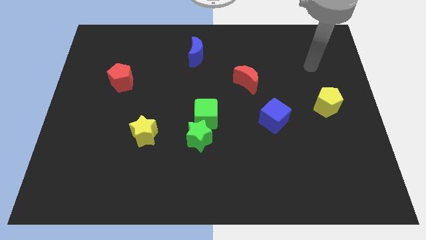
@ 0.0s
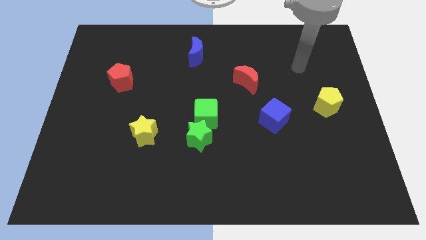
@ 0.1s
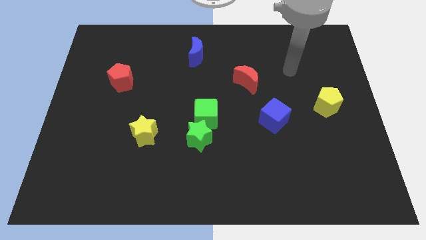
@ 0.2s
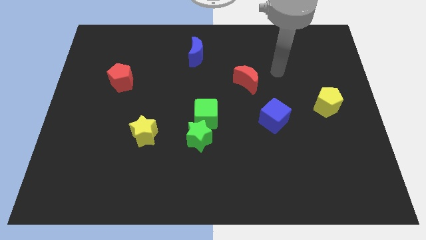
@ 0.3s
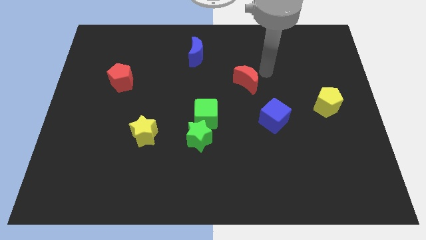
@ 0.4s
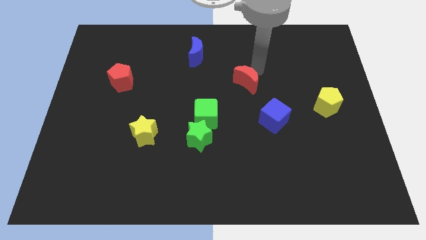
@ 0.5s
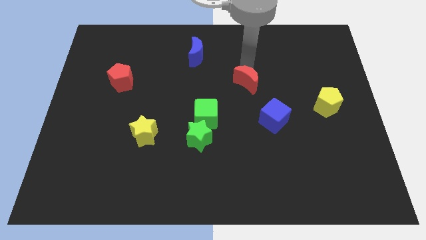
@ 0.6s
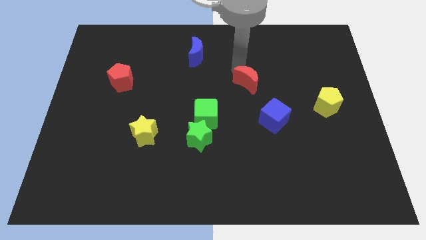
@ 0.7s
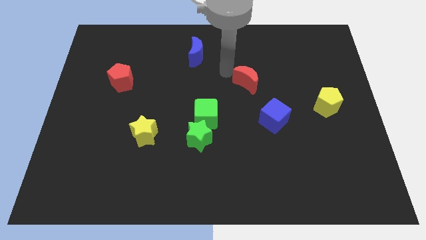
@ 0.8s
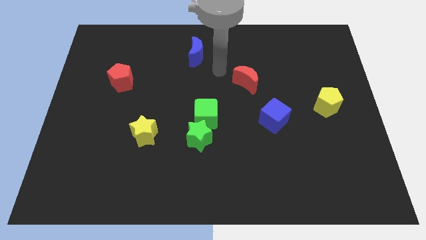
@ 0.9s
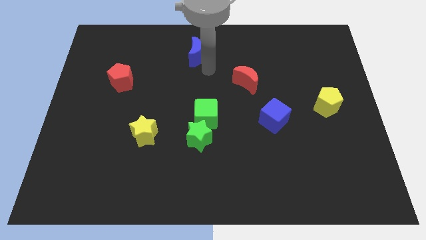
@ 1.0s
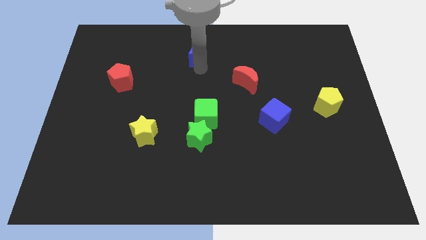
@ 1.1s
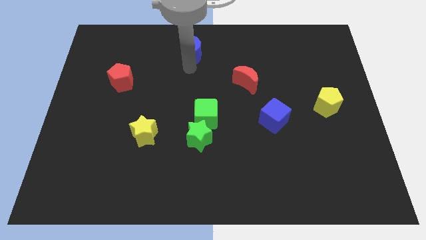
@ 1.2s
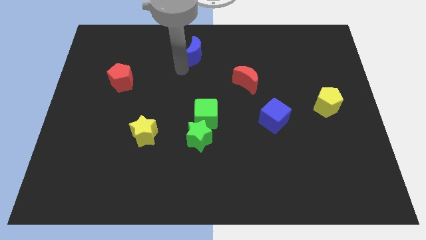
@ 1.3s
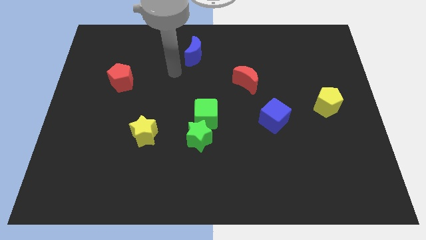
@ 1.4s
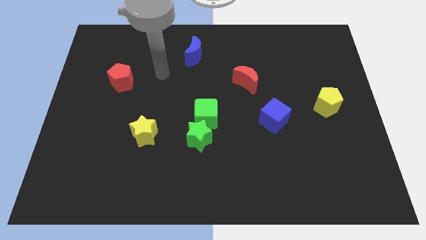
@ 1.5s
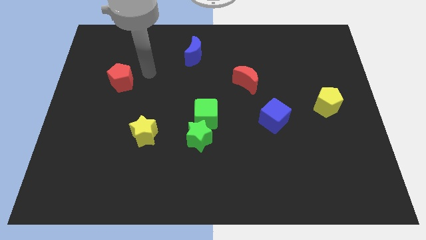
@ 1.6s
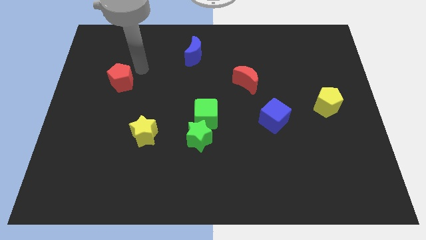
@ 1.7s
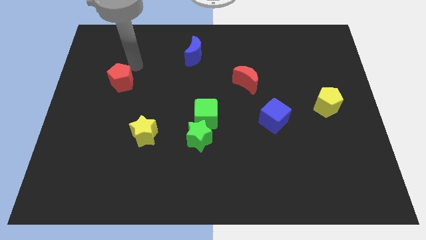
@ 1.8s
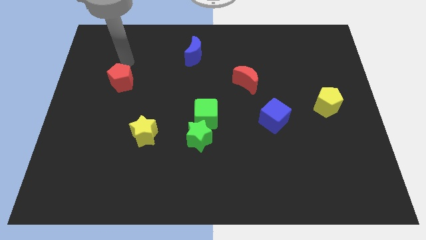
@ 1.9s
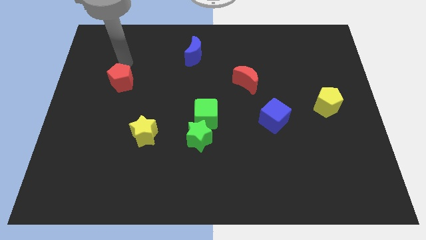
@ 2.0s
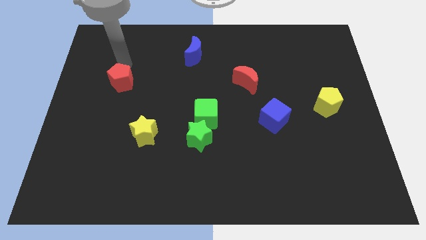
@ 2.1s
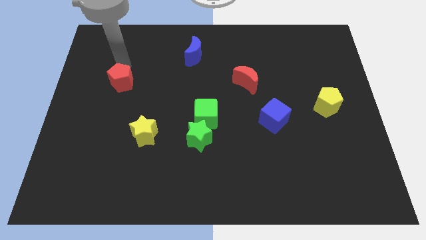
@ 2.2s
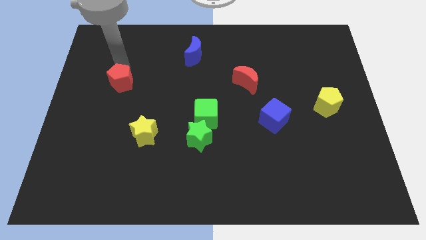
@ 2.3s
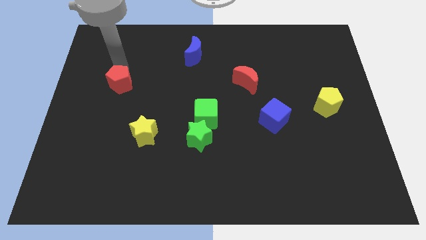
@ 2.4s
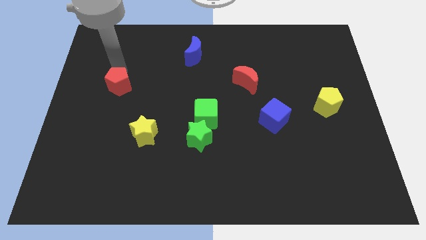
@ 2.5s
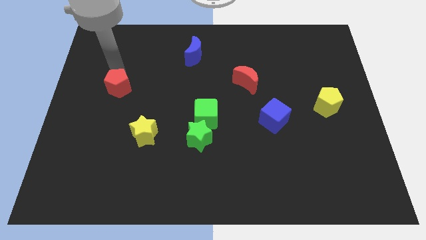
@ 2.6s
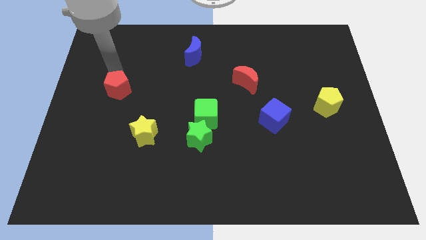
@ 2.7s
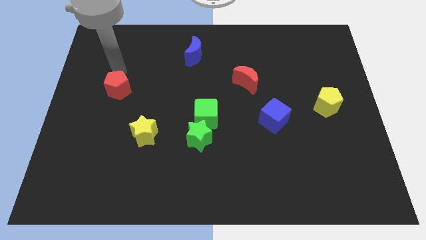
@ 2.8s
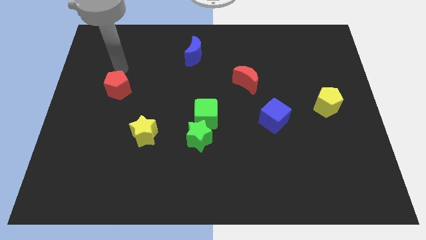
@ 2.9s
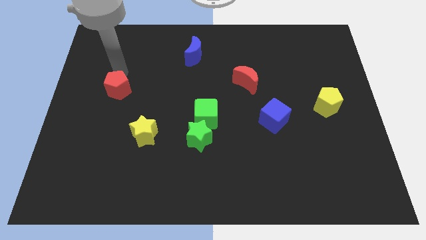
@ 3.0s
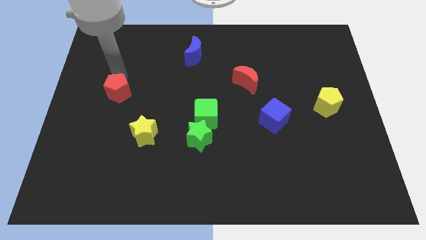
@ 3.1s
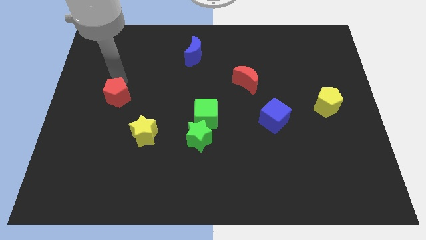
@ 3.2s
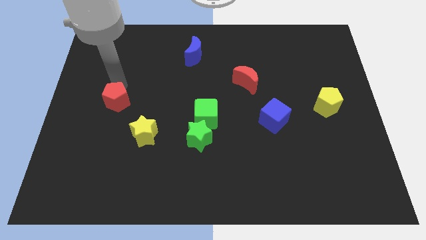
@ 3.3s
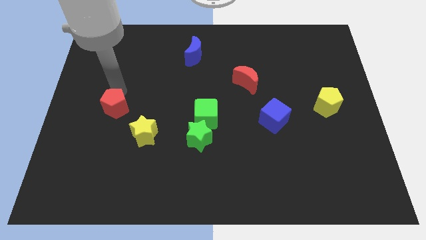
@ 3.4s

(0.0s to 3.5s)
slightly move the red pentagon down

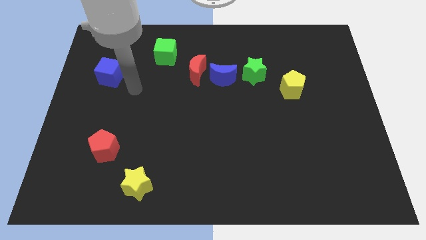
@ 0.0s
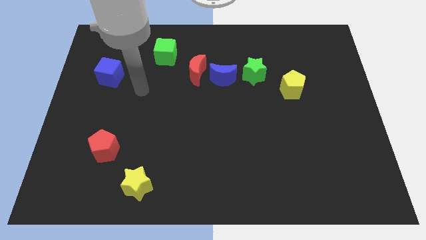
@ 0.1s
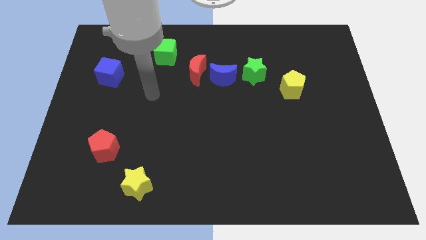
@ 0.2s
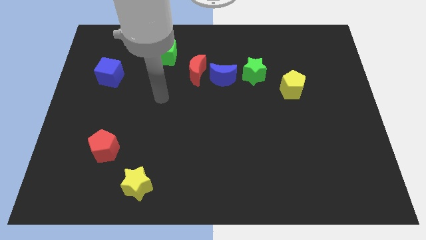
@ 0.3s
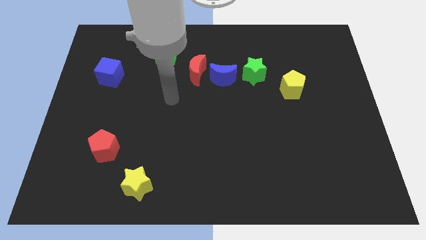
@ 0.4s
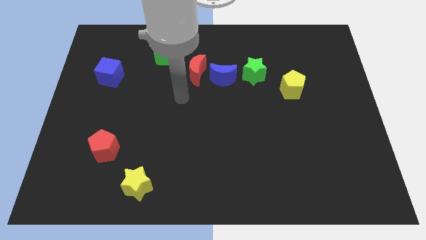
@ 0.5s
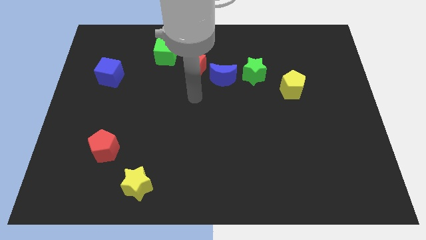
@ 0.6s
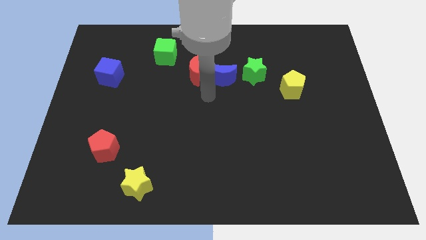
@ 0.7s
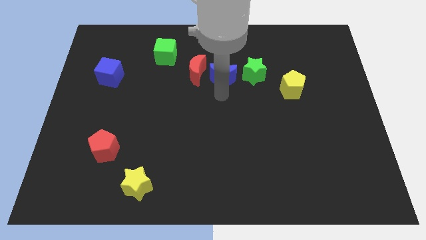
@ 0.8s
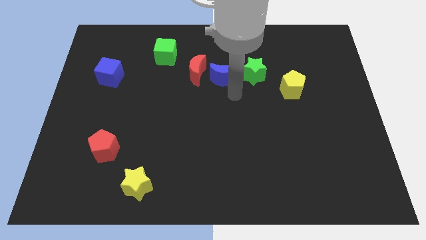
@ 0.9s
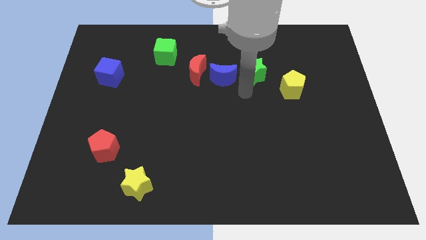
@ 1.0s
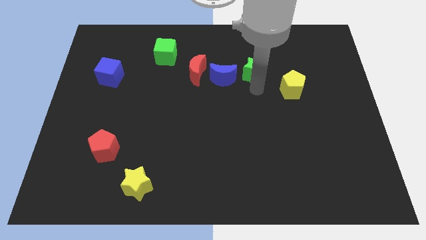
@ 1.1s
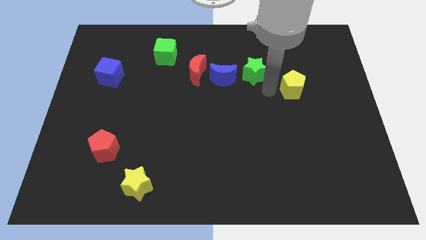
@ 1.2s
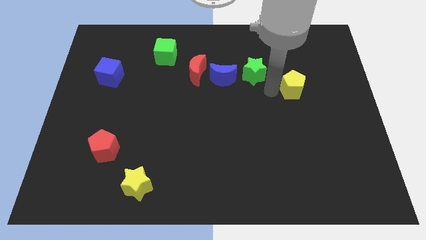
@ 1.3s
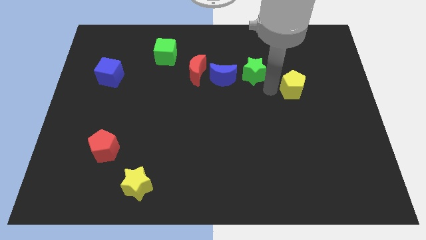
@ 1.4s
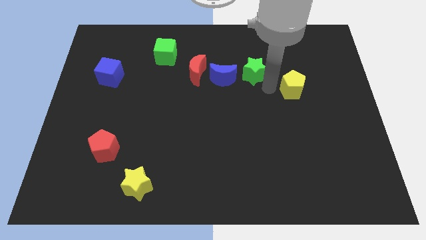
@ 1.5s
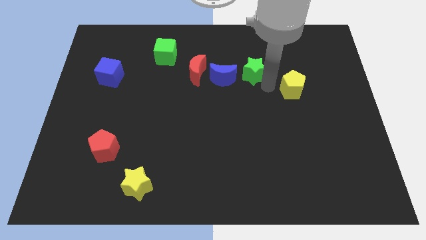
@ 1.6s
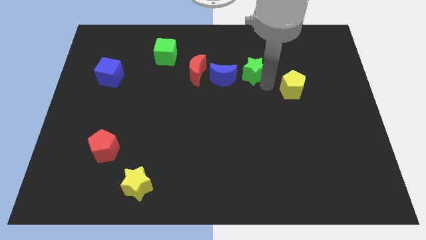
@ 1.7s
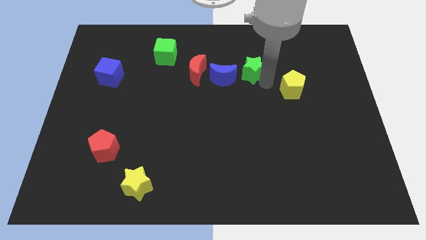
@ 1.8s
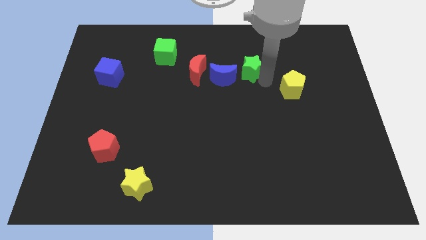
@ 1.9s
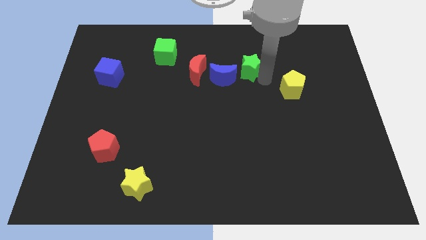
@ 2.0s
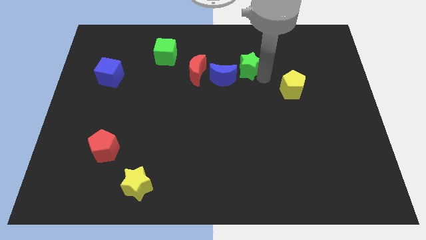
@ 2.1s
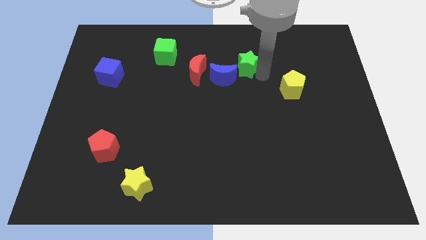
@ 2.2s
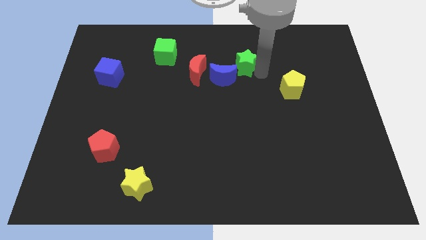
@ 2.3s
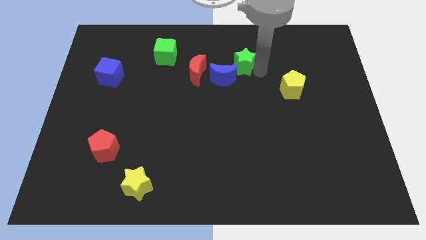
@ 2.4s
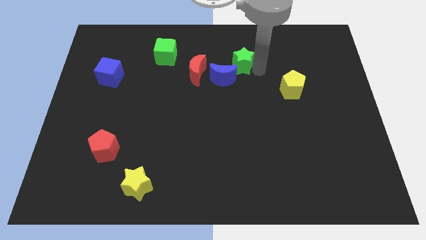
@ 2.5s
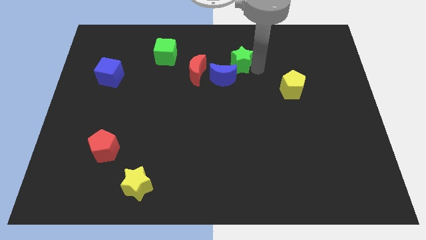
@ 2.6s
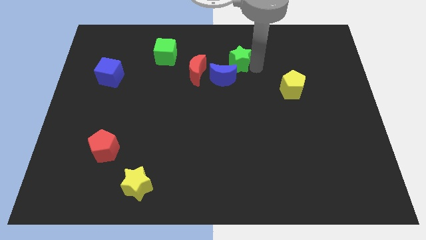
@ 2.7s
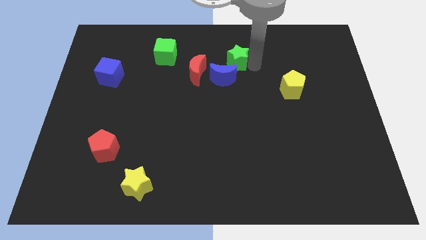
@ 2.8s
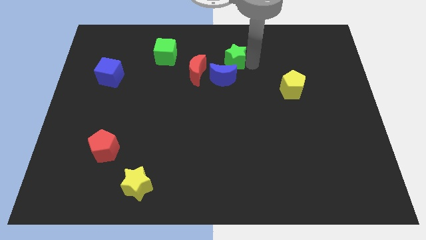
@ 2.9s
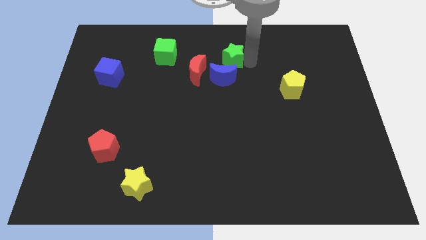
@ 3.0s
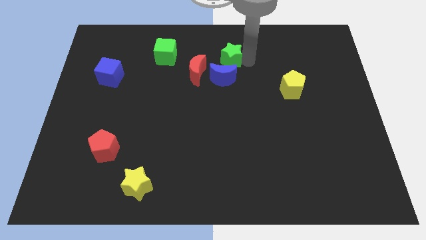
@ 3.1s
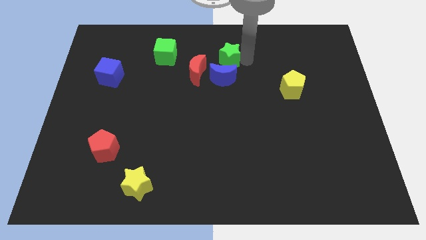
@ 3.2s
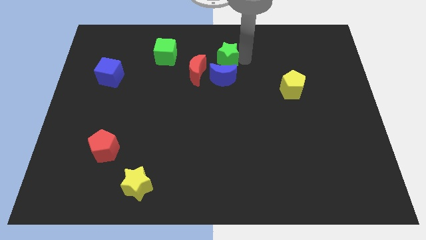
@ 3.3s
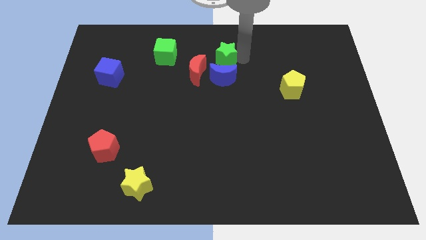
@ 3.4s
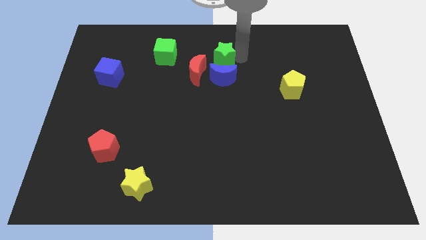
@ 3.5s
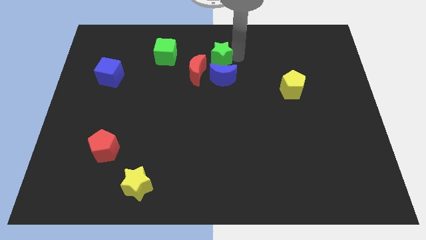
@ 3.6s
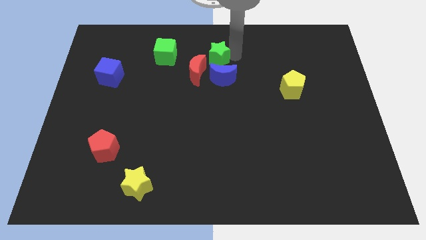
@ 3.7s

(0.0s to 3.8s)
slide the green star slightly to the left

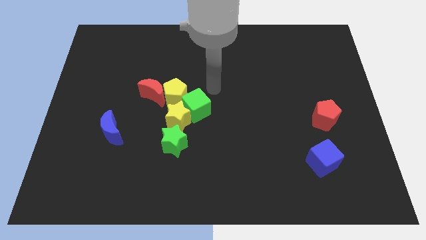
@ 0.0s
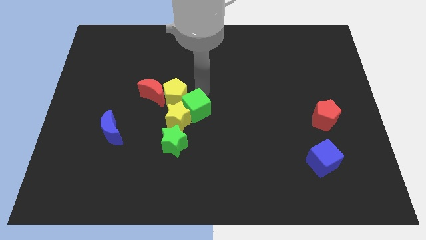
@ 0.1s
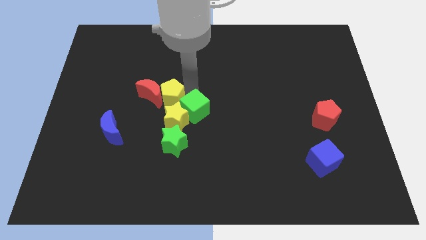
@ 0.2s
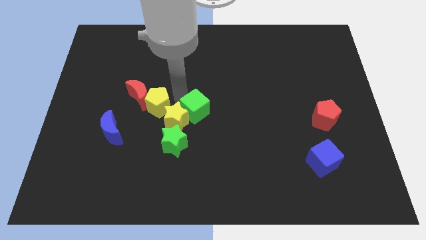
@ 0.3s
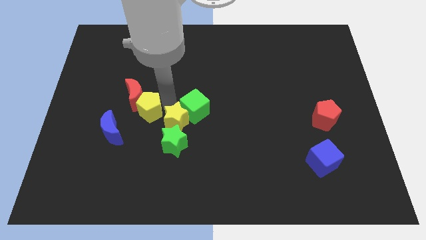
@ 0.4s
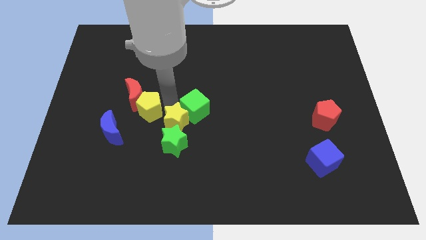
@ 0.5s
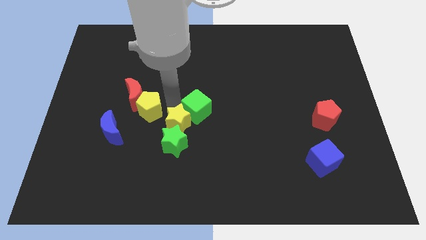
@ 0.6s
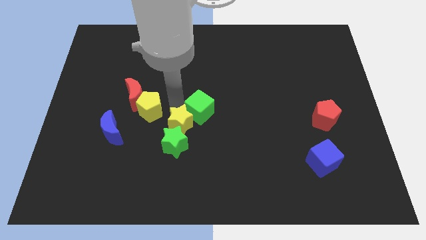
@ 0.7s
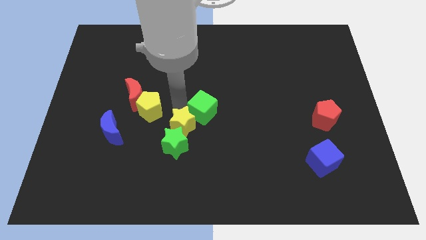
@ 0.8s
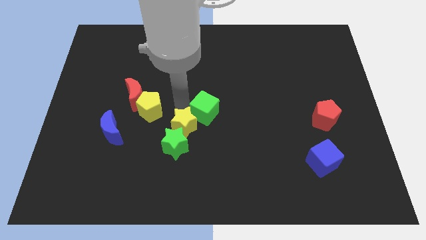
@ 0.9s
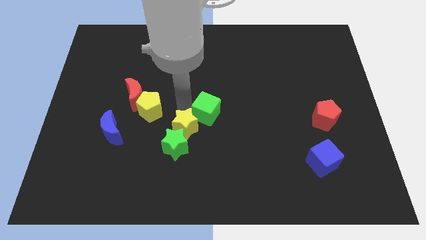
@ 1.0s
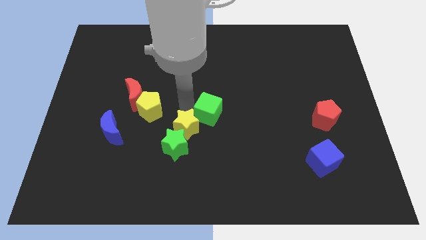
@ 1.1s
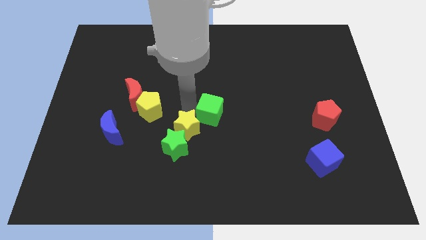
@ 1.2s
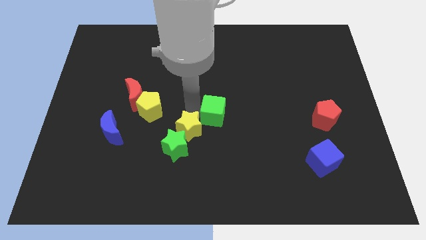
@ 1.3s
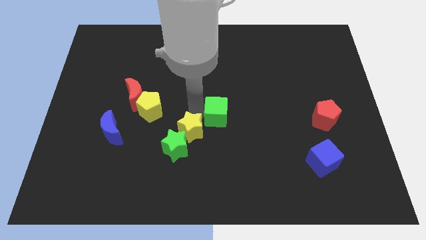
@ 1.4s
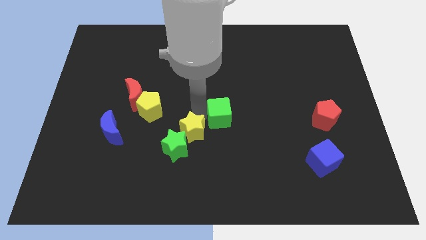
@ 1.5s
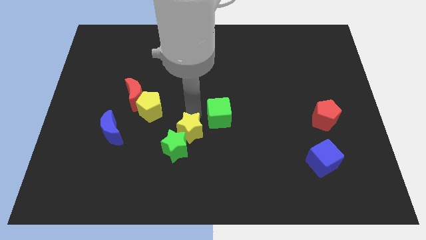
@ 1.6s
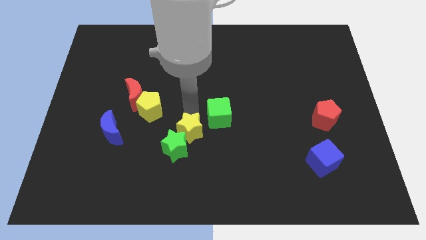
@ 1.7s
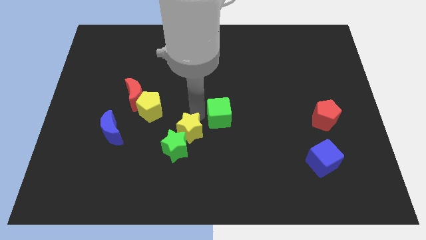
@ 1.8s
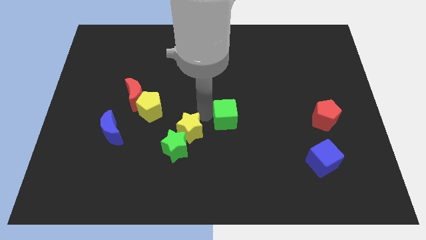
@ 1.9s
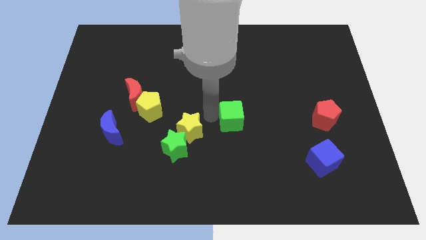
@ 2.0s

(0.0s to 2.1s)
slightly slide the green cube to the right
